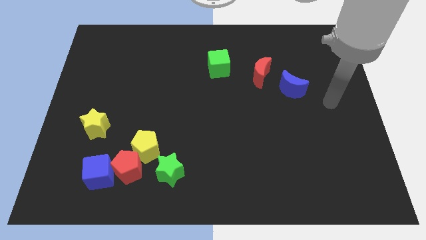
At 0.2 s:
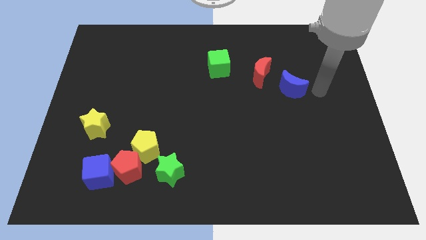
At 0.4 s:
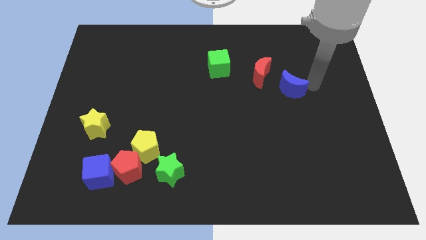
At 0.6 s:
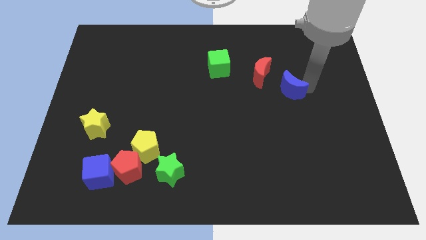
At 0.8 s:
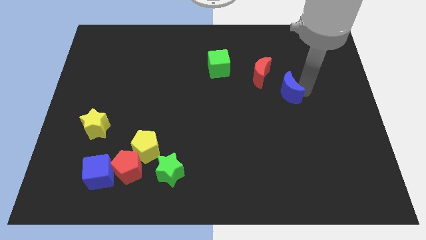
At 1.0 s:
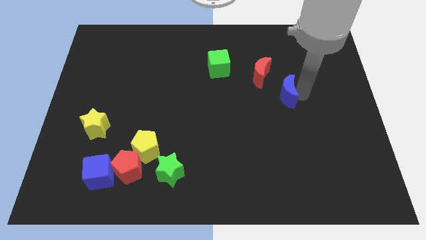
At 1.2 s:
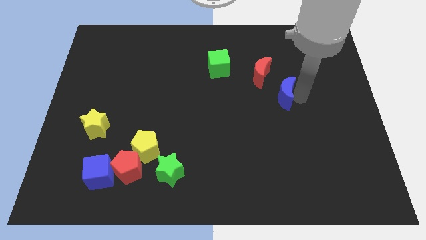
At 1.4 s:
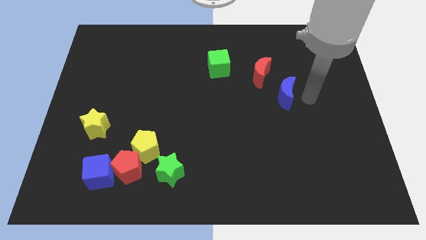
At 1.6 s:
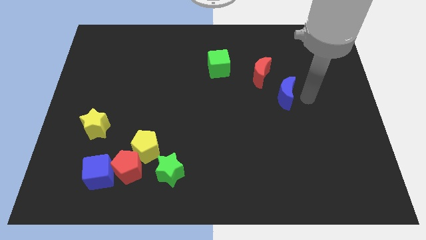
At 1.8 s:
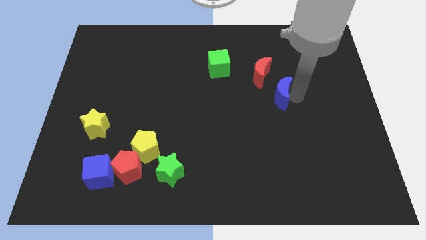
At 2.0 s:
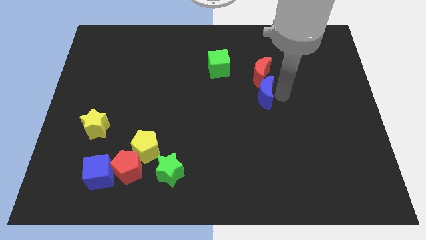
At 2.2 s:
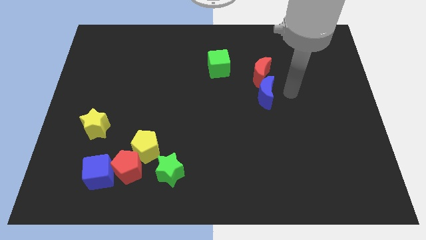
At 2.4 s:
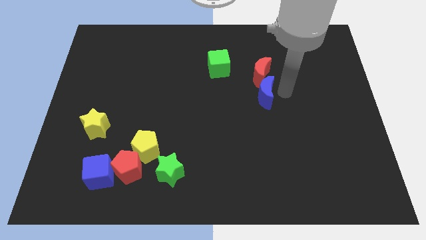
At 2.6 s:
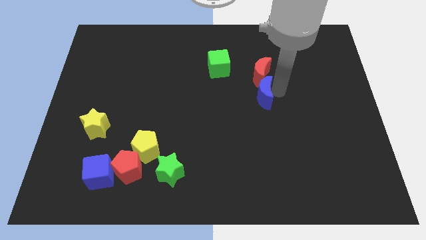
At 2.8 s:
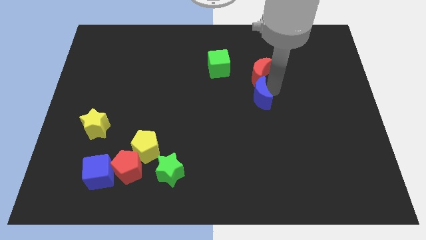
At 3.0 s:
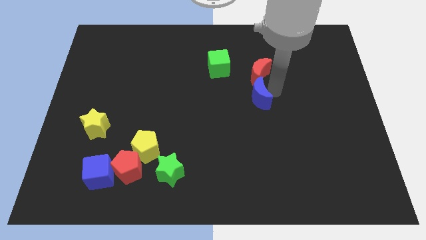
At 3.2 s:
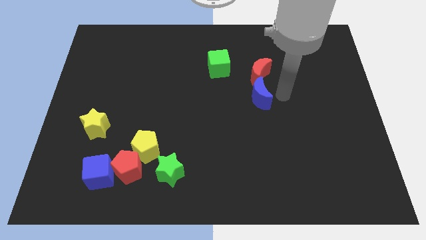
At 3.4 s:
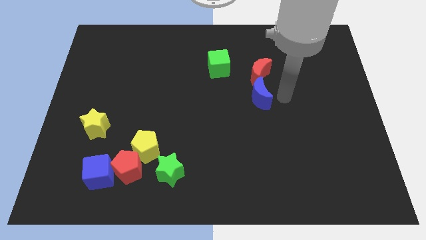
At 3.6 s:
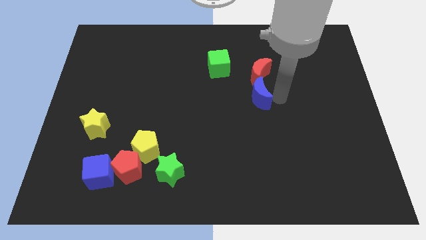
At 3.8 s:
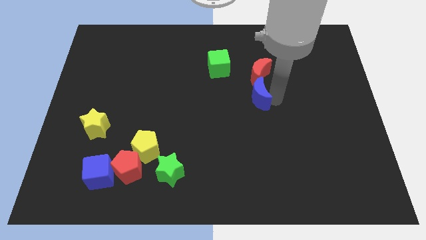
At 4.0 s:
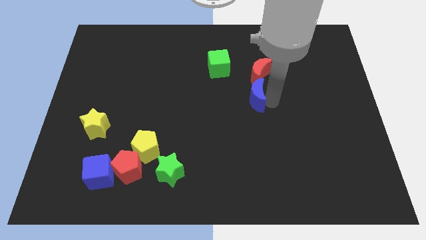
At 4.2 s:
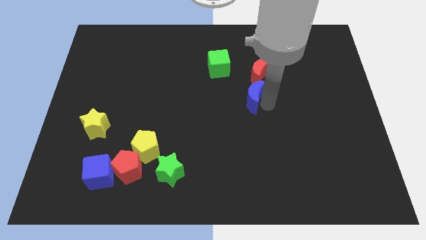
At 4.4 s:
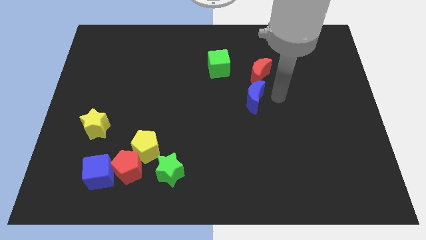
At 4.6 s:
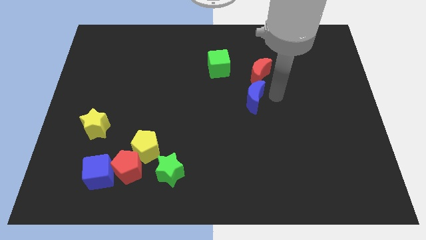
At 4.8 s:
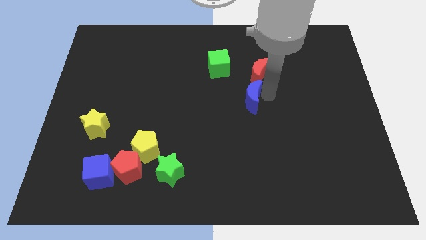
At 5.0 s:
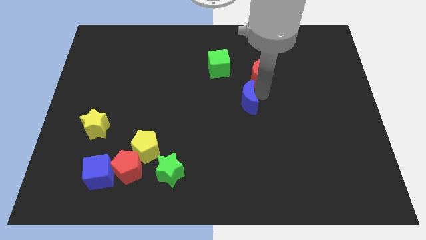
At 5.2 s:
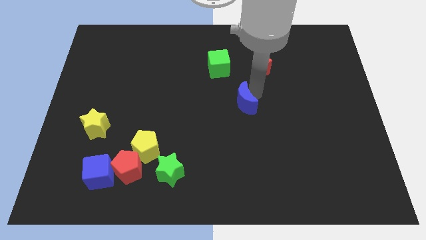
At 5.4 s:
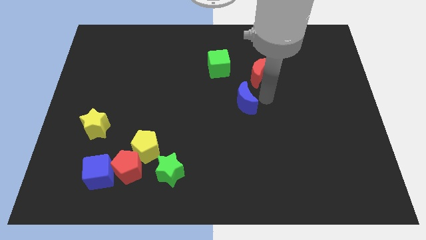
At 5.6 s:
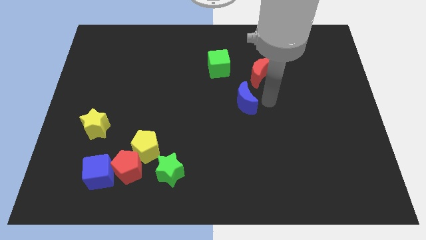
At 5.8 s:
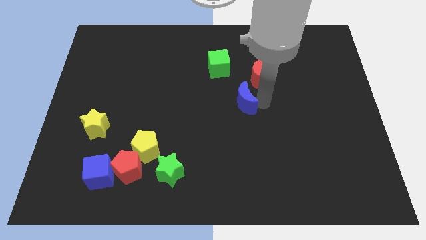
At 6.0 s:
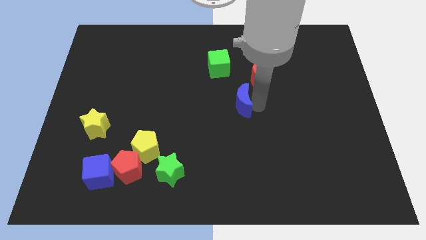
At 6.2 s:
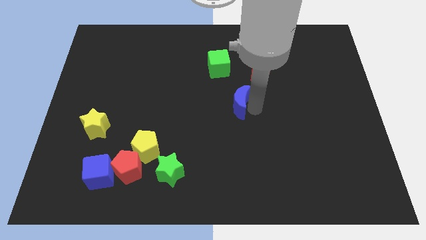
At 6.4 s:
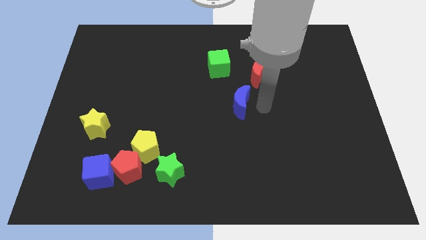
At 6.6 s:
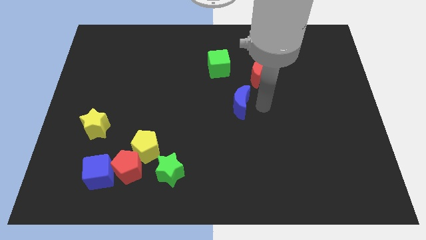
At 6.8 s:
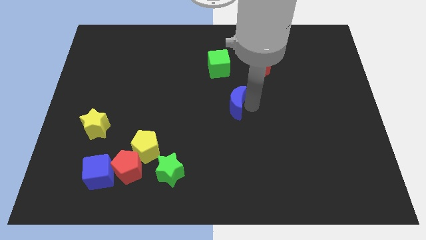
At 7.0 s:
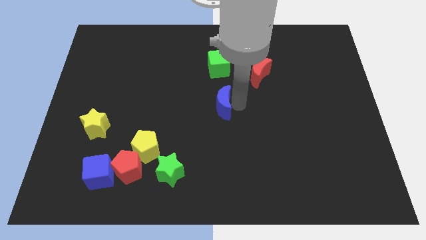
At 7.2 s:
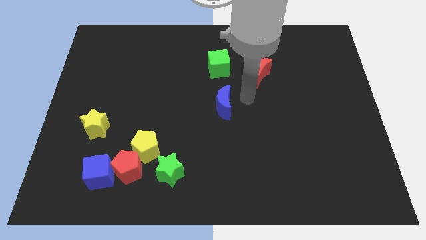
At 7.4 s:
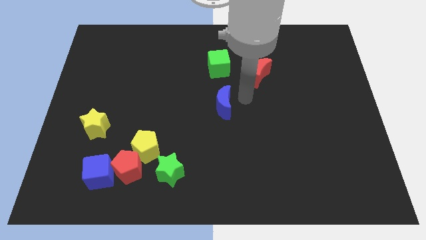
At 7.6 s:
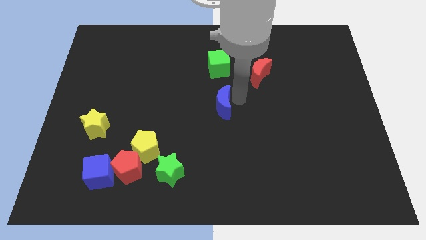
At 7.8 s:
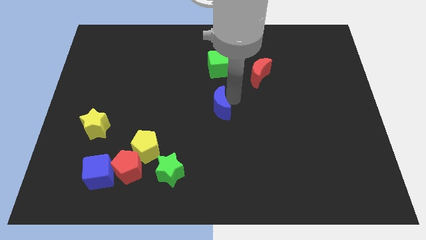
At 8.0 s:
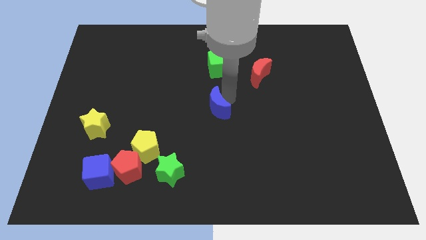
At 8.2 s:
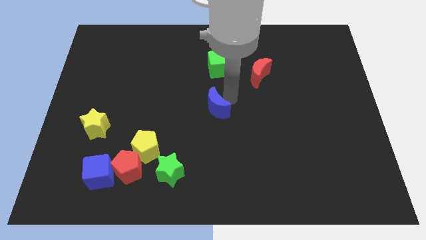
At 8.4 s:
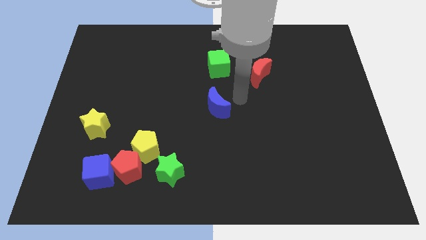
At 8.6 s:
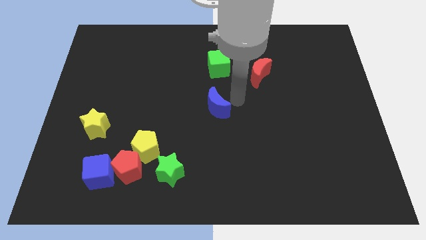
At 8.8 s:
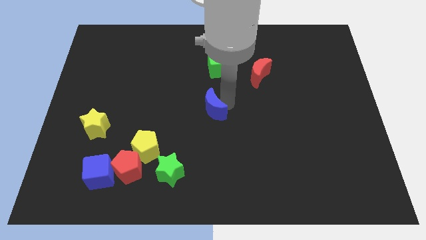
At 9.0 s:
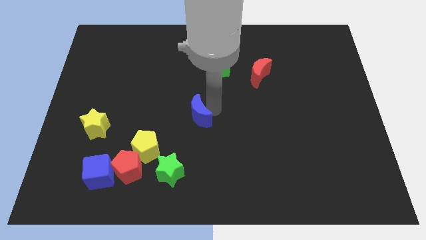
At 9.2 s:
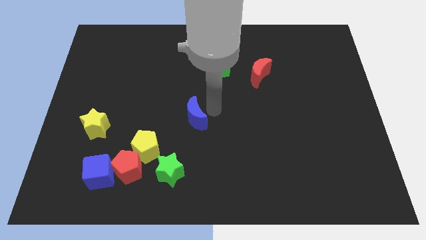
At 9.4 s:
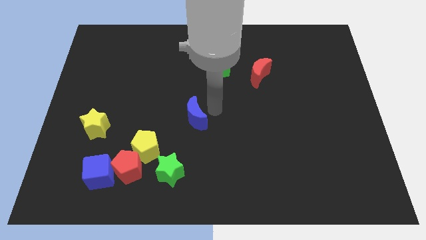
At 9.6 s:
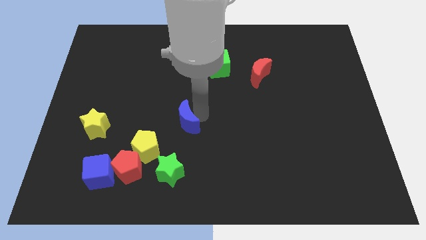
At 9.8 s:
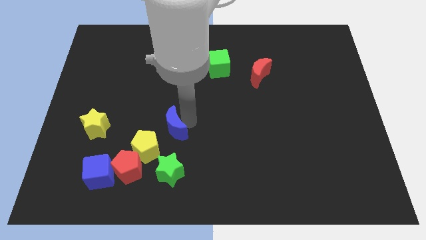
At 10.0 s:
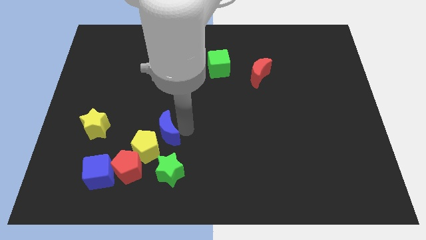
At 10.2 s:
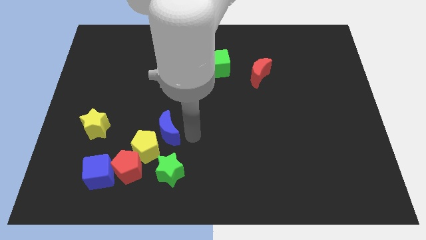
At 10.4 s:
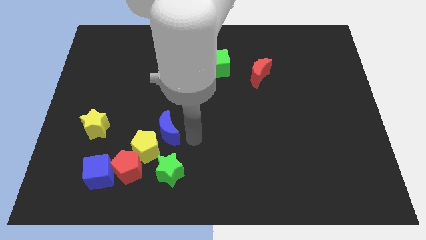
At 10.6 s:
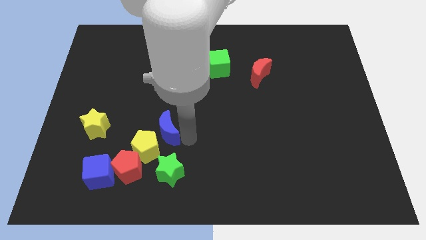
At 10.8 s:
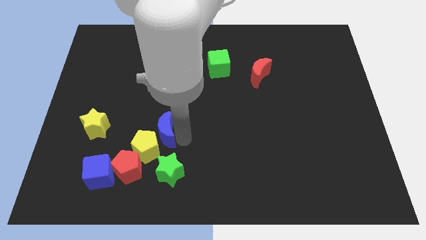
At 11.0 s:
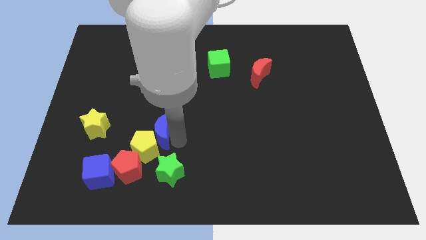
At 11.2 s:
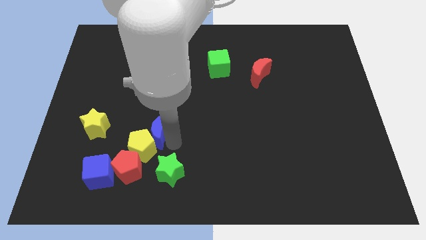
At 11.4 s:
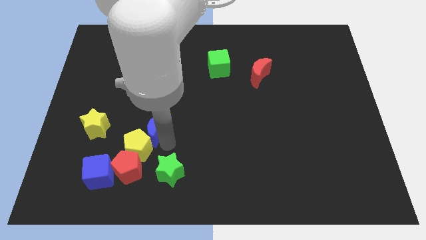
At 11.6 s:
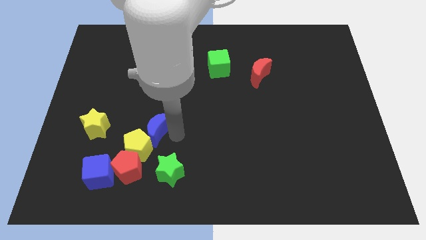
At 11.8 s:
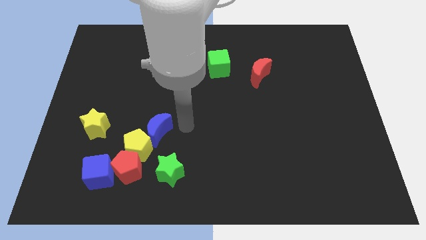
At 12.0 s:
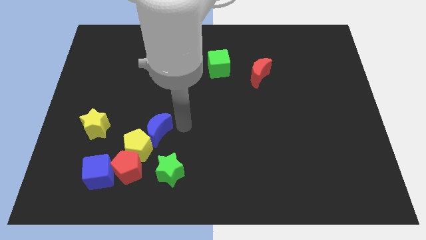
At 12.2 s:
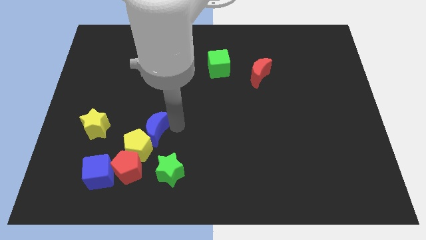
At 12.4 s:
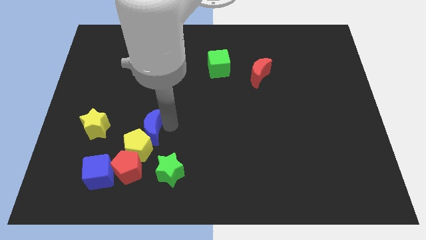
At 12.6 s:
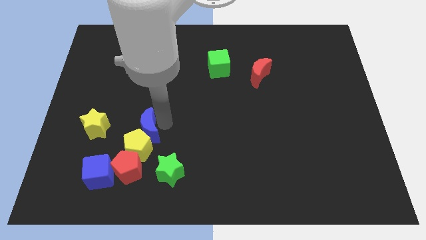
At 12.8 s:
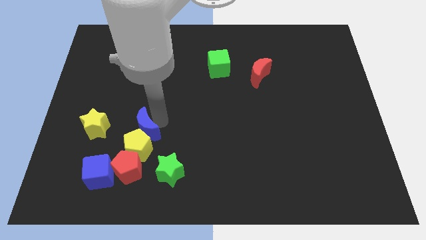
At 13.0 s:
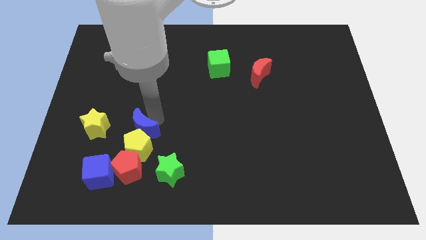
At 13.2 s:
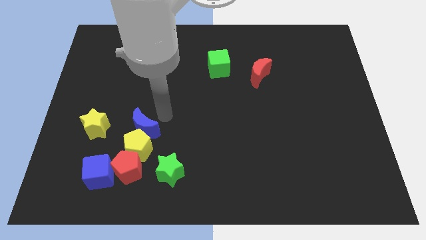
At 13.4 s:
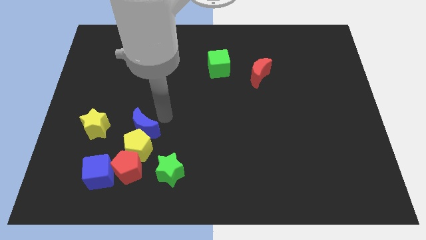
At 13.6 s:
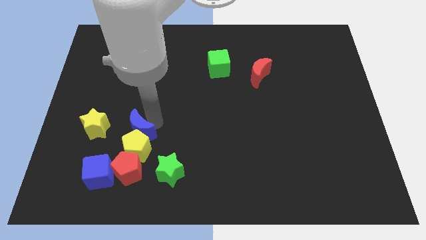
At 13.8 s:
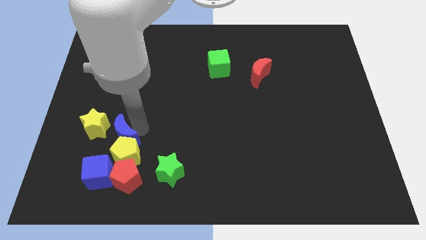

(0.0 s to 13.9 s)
put the blue moon to the bottom right of the yellow star

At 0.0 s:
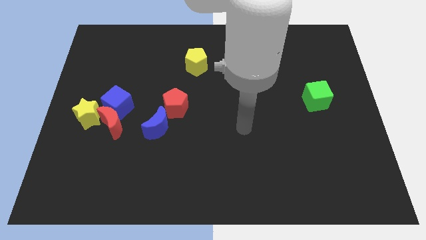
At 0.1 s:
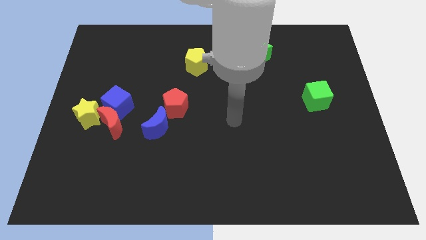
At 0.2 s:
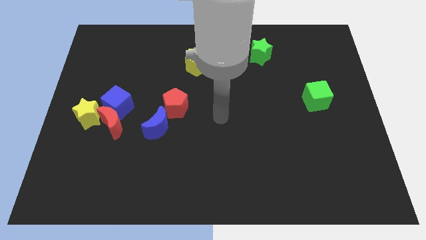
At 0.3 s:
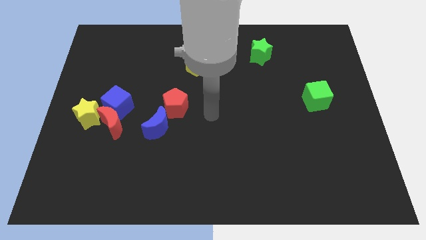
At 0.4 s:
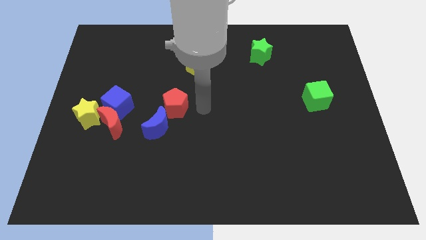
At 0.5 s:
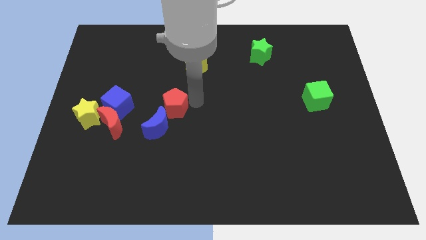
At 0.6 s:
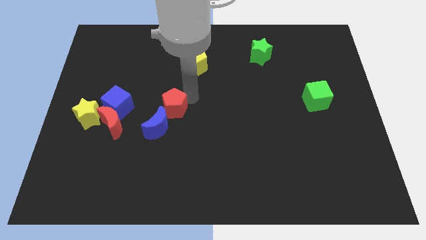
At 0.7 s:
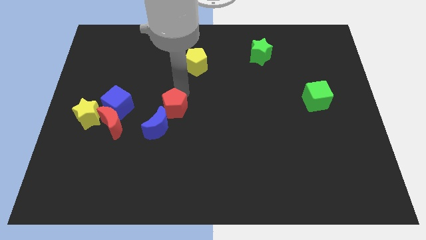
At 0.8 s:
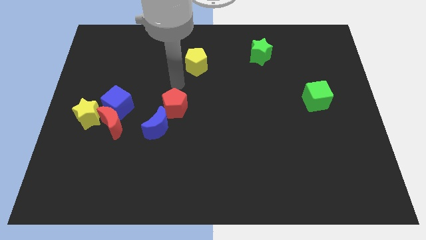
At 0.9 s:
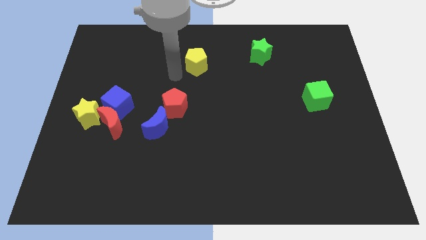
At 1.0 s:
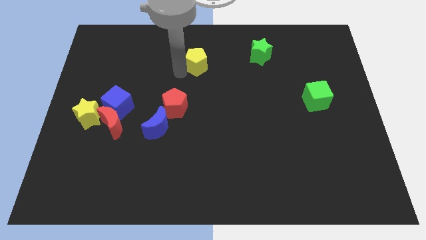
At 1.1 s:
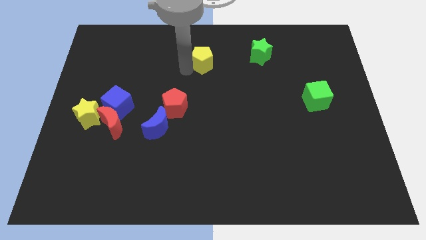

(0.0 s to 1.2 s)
push the yellow pentagon to the left of the green star
